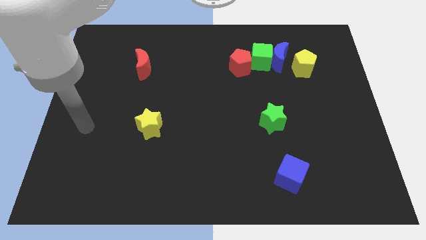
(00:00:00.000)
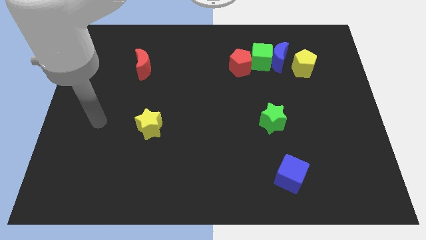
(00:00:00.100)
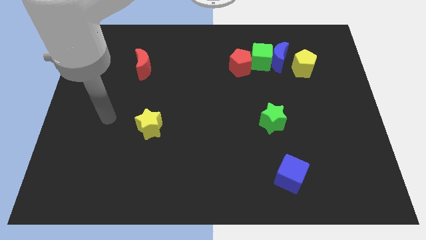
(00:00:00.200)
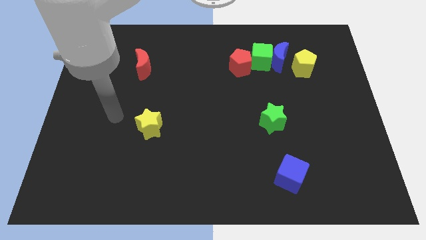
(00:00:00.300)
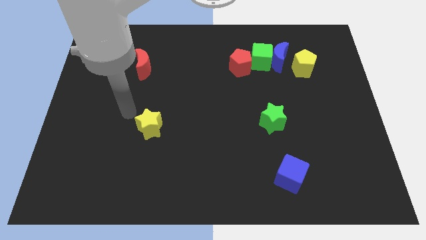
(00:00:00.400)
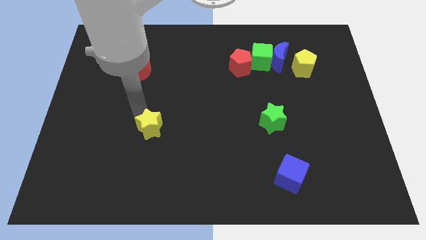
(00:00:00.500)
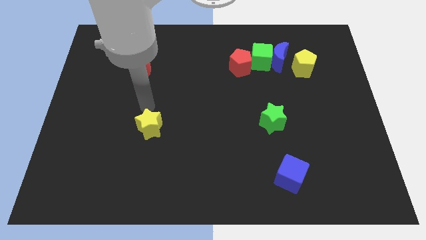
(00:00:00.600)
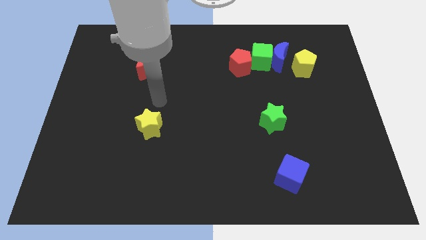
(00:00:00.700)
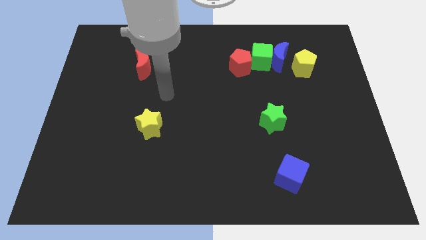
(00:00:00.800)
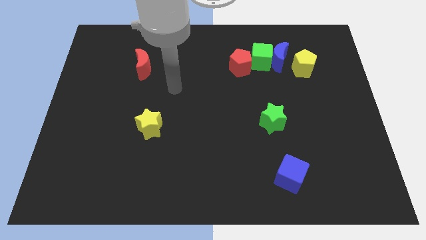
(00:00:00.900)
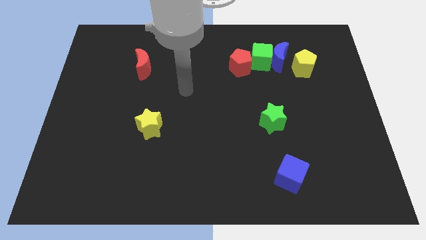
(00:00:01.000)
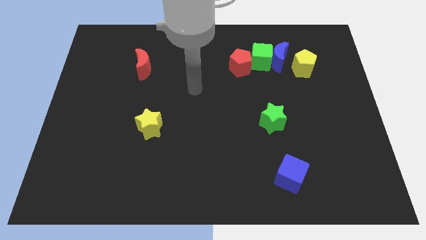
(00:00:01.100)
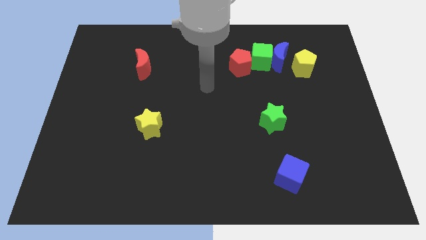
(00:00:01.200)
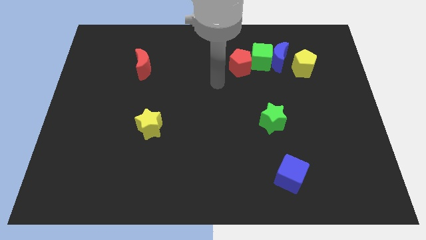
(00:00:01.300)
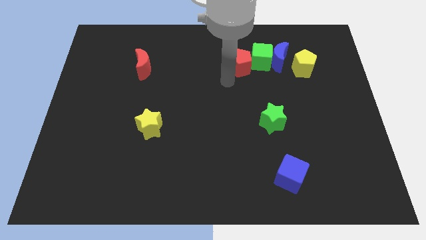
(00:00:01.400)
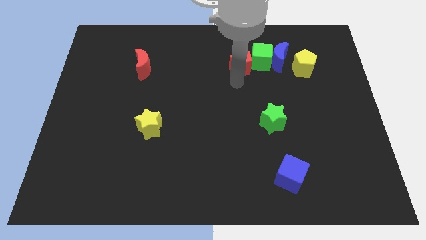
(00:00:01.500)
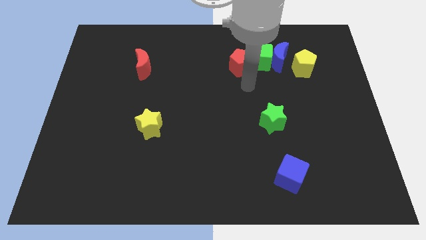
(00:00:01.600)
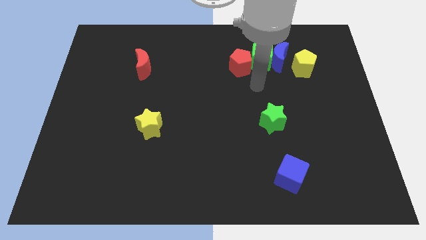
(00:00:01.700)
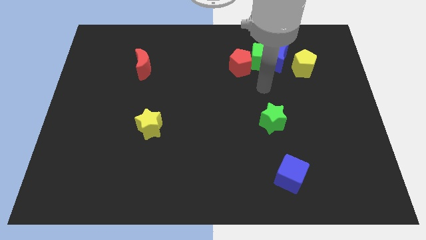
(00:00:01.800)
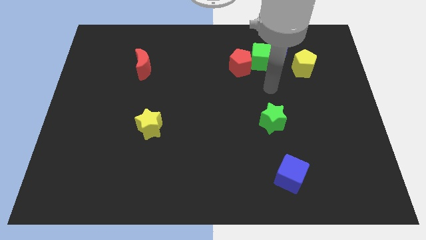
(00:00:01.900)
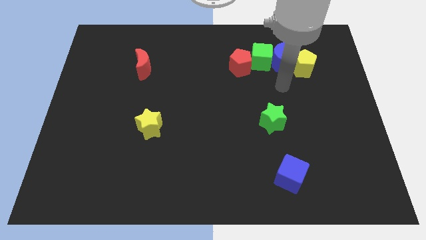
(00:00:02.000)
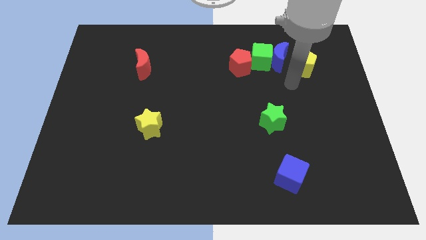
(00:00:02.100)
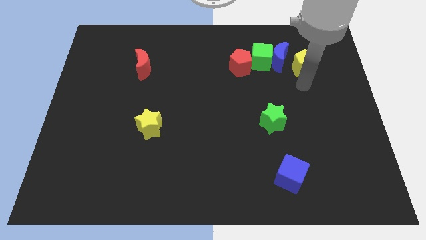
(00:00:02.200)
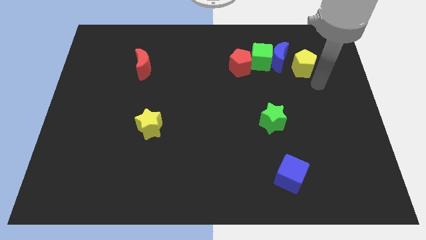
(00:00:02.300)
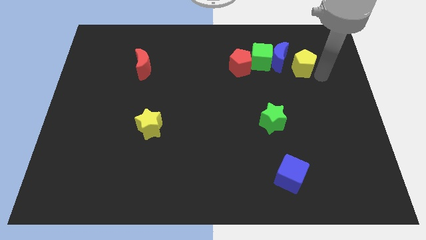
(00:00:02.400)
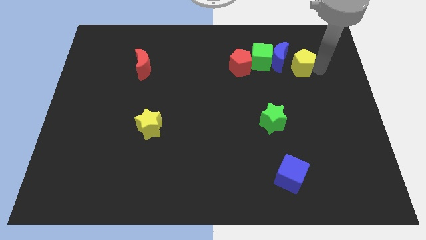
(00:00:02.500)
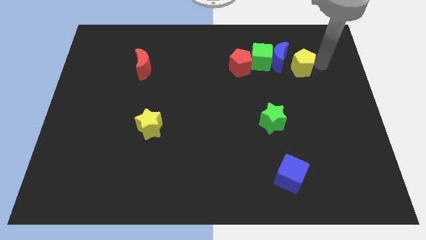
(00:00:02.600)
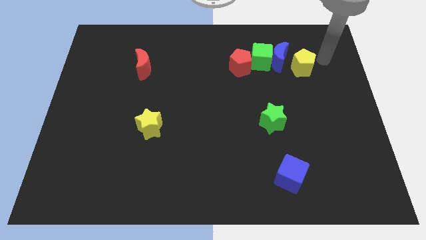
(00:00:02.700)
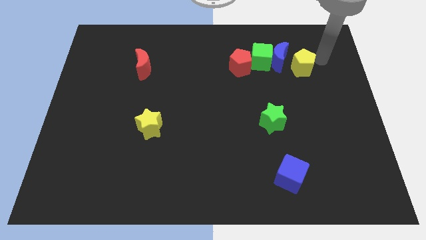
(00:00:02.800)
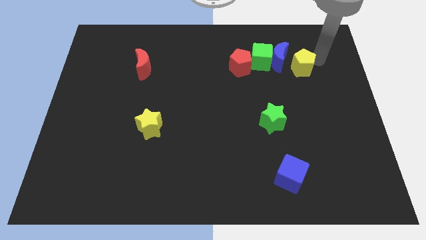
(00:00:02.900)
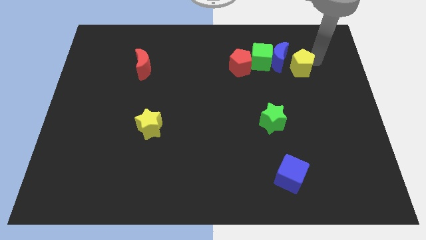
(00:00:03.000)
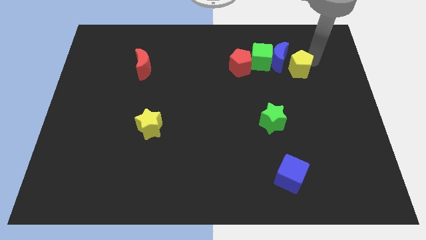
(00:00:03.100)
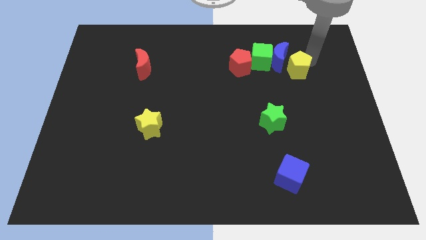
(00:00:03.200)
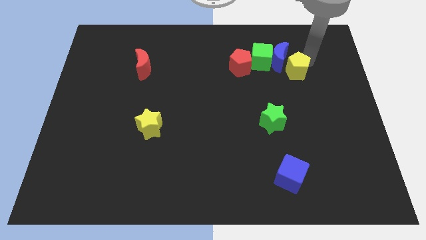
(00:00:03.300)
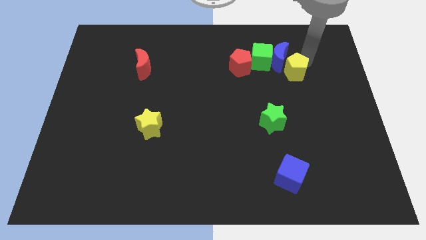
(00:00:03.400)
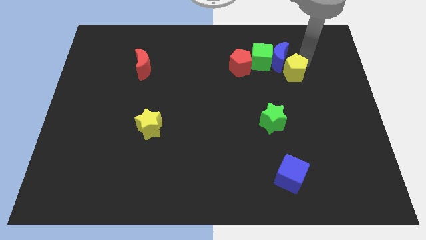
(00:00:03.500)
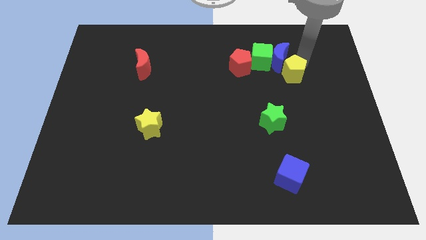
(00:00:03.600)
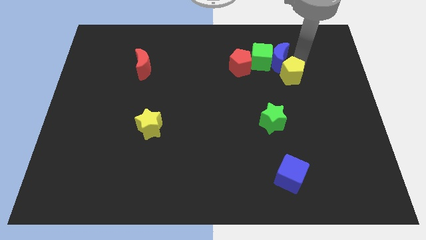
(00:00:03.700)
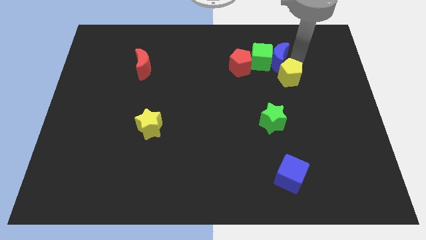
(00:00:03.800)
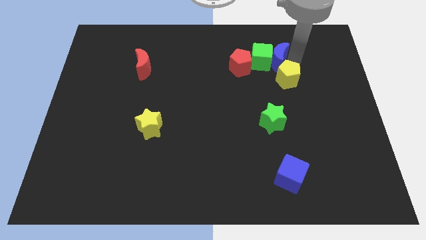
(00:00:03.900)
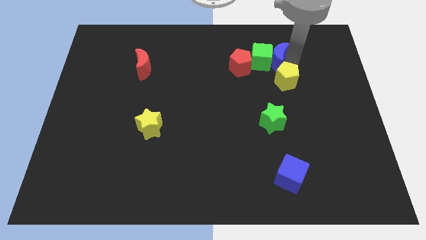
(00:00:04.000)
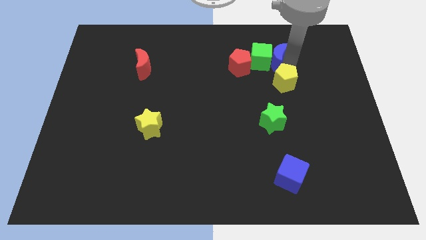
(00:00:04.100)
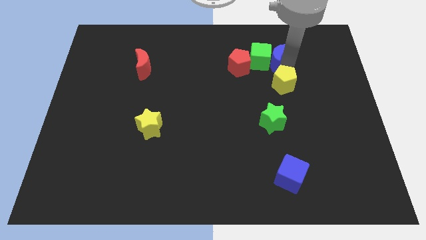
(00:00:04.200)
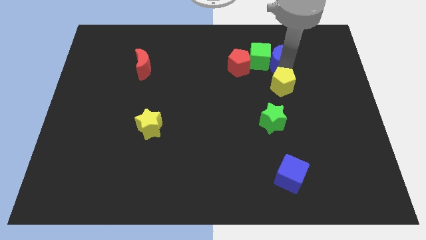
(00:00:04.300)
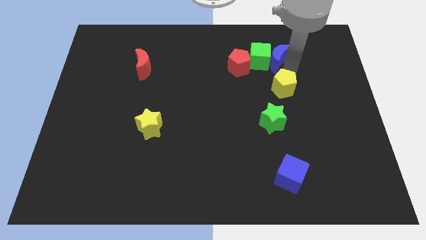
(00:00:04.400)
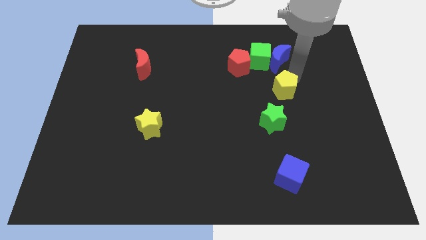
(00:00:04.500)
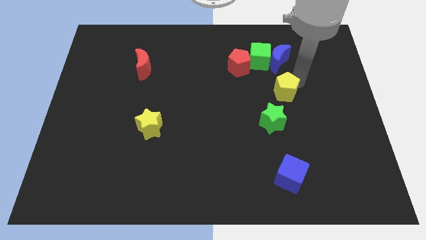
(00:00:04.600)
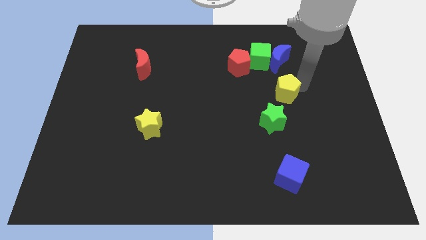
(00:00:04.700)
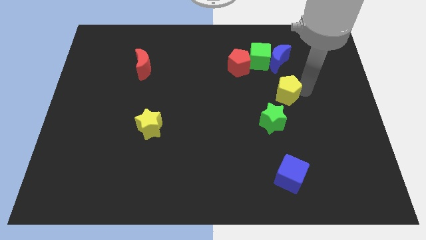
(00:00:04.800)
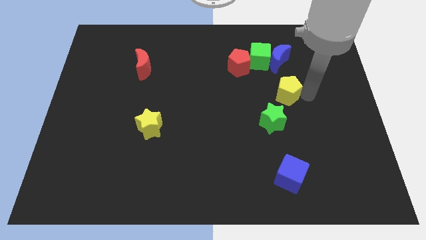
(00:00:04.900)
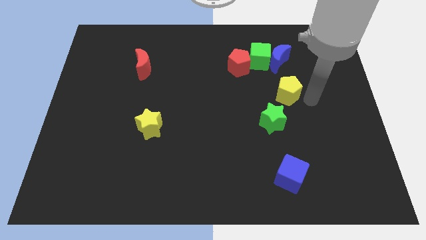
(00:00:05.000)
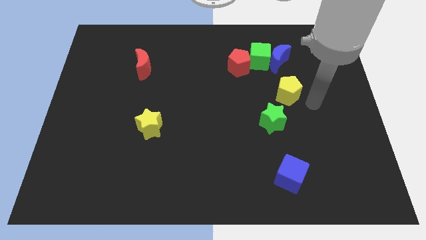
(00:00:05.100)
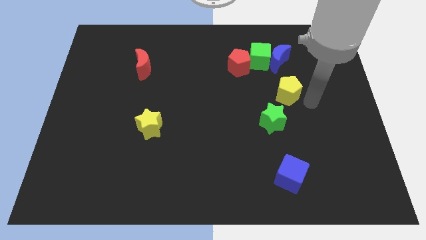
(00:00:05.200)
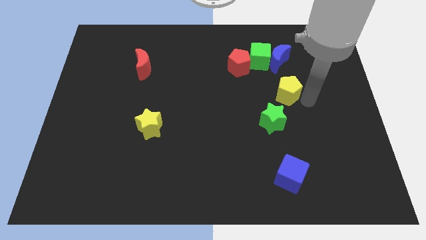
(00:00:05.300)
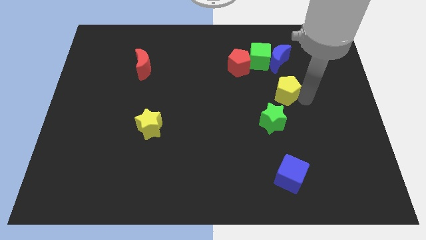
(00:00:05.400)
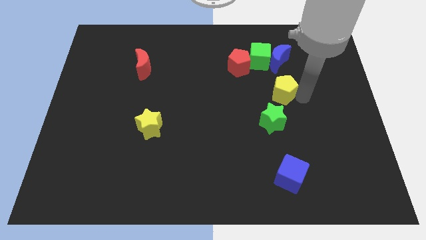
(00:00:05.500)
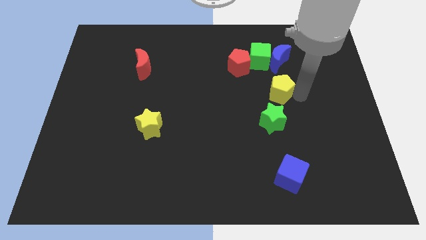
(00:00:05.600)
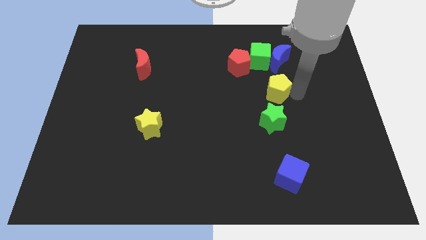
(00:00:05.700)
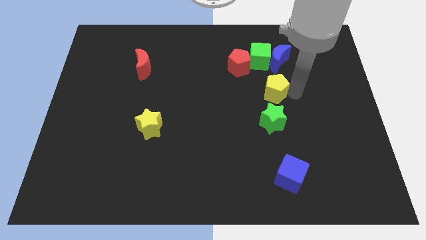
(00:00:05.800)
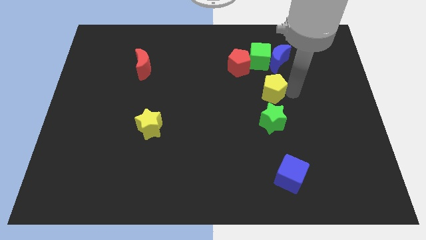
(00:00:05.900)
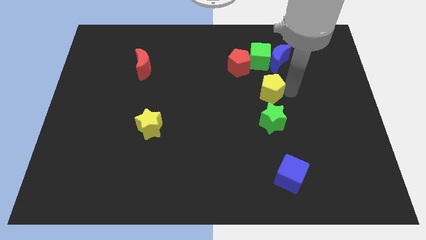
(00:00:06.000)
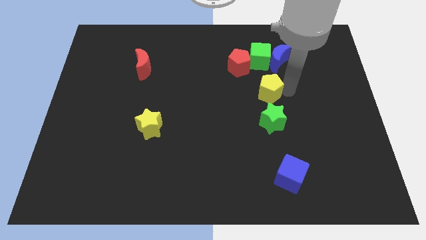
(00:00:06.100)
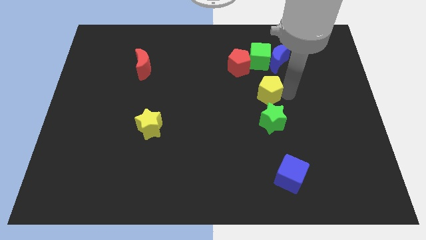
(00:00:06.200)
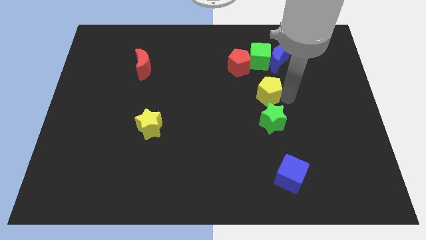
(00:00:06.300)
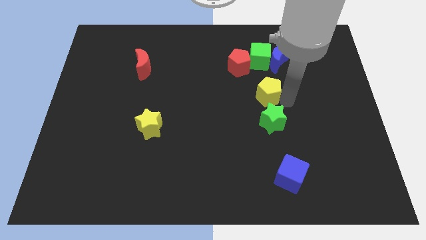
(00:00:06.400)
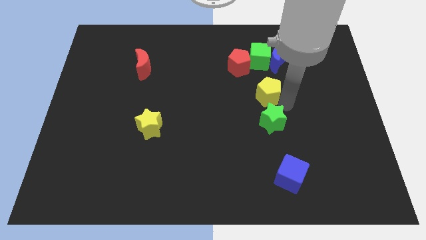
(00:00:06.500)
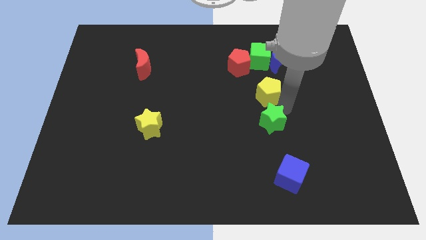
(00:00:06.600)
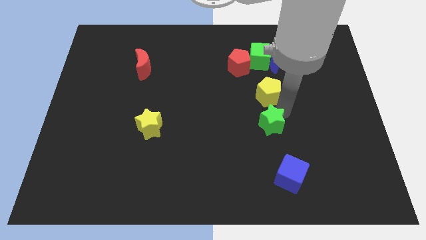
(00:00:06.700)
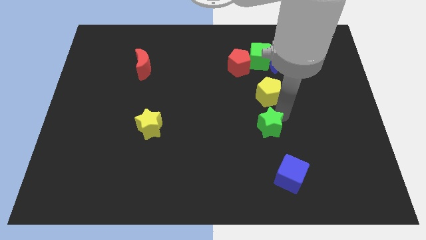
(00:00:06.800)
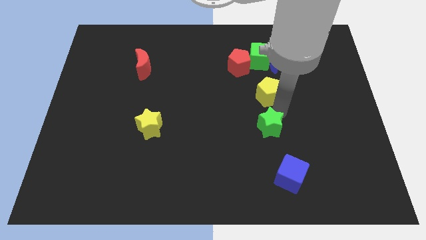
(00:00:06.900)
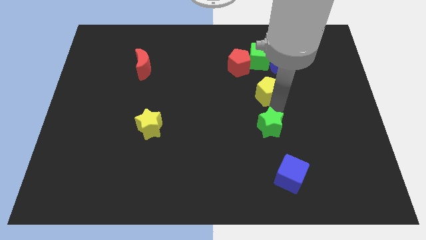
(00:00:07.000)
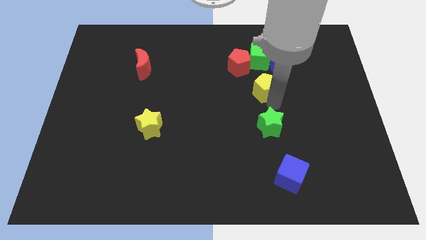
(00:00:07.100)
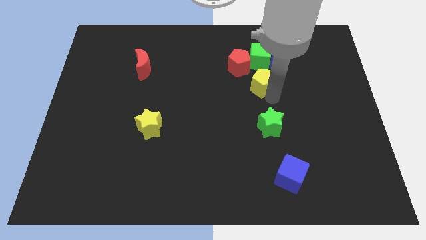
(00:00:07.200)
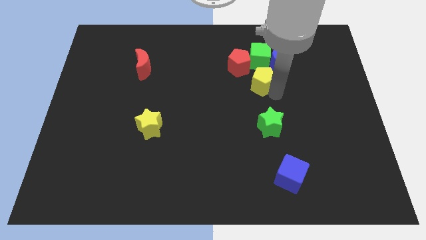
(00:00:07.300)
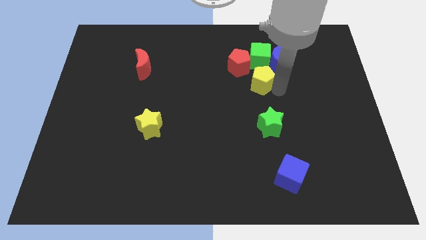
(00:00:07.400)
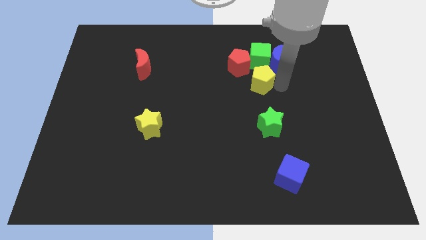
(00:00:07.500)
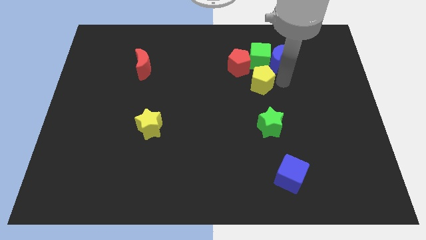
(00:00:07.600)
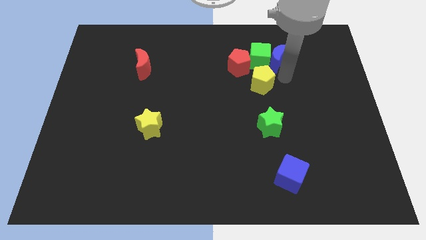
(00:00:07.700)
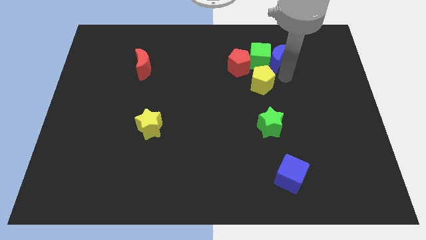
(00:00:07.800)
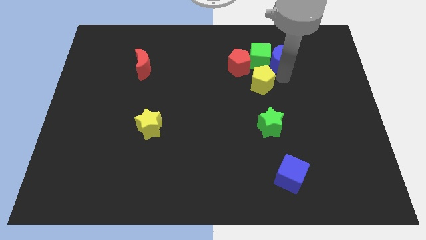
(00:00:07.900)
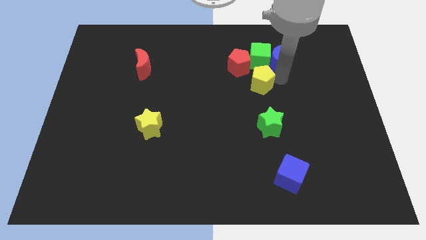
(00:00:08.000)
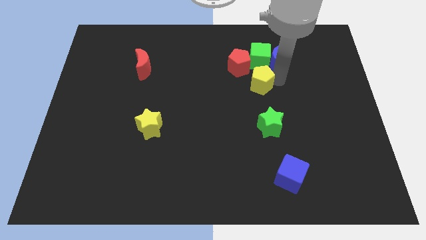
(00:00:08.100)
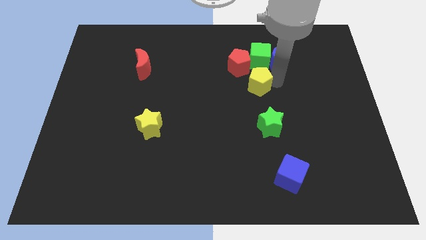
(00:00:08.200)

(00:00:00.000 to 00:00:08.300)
move the yellow pentagon to the center
